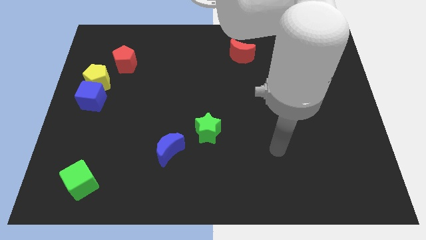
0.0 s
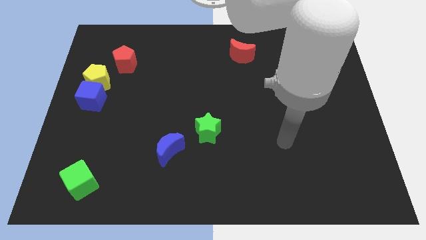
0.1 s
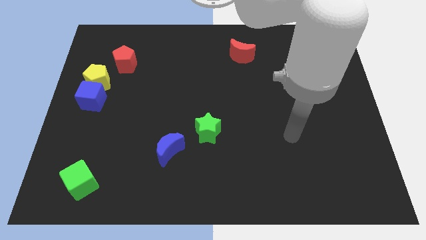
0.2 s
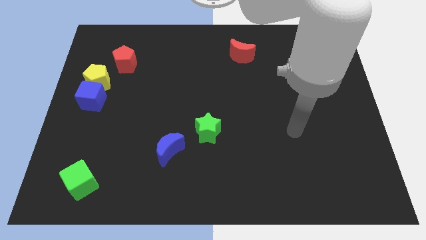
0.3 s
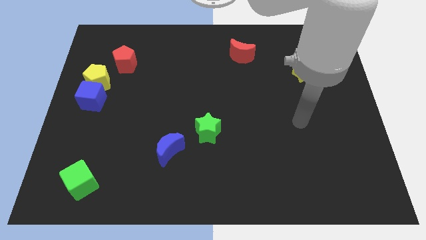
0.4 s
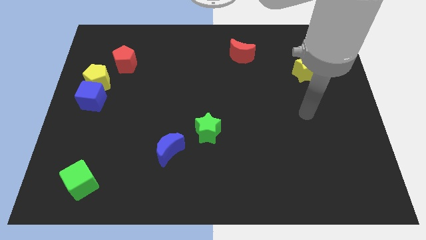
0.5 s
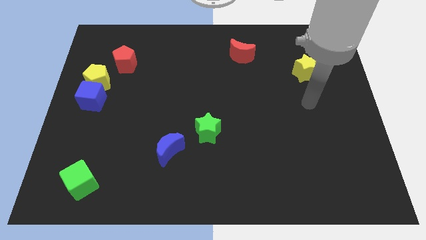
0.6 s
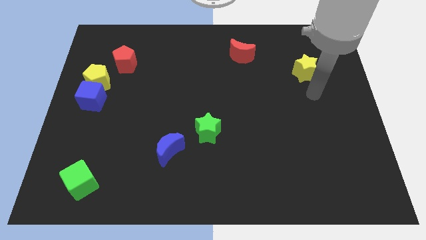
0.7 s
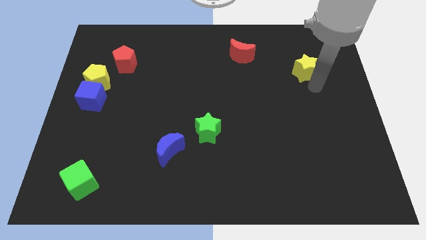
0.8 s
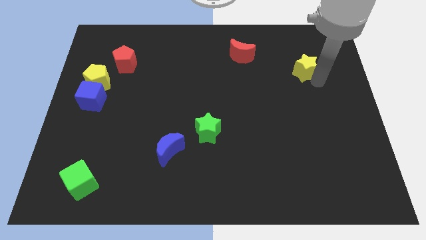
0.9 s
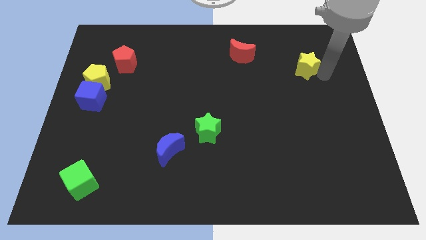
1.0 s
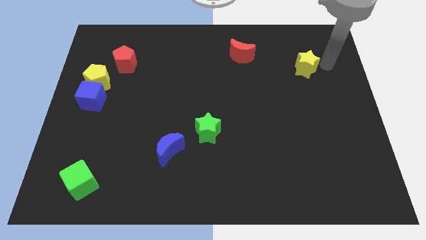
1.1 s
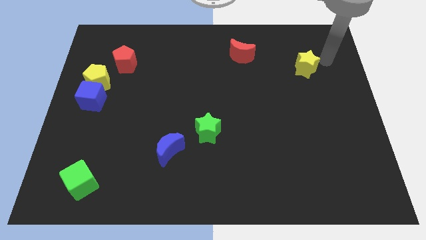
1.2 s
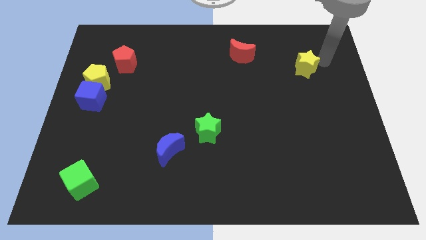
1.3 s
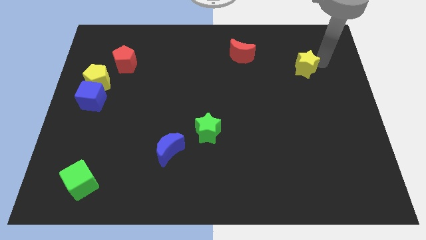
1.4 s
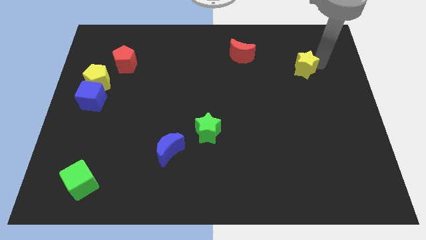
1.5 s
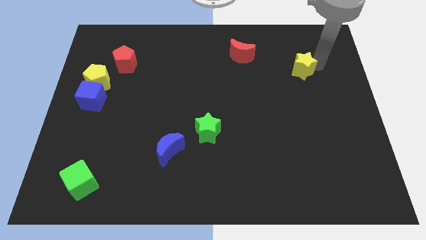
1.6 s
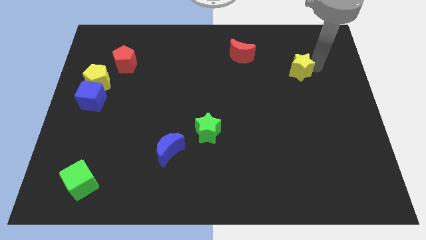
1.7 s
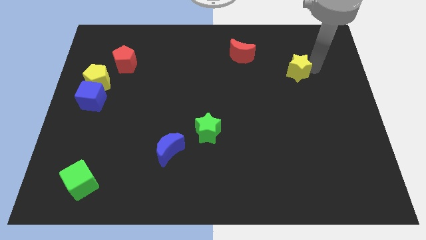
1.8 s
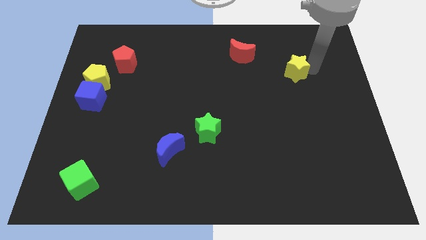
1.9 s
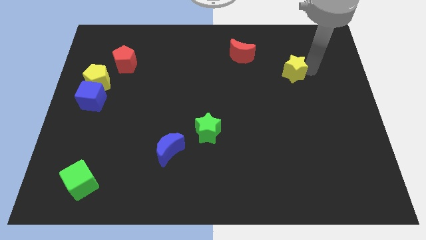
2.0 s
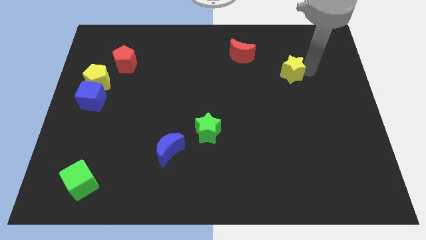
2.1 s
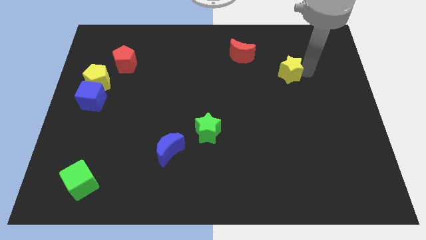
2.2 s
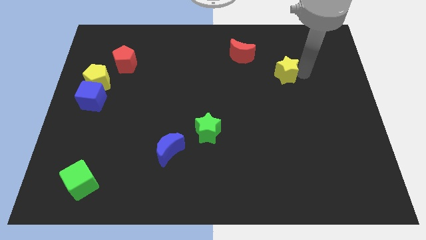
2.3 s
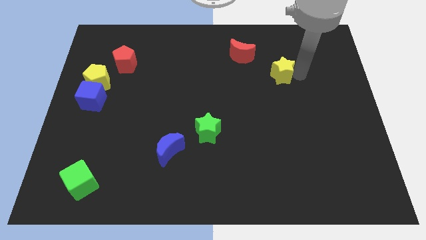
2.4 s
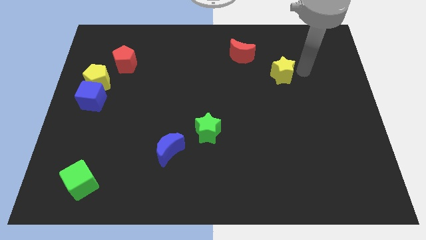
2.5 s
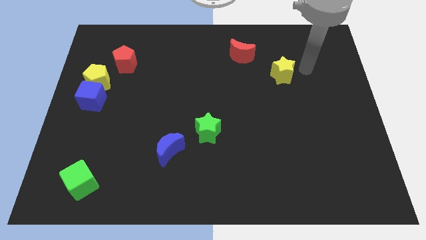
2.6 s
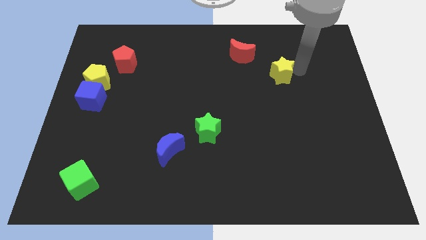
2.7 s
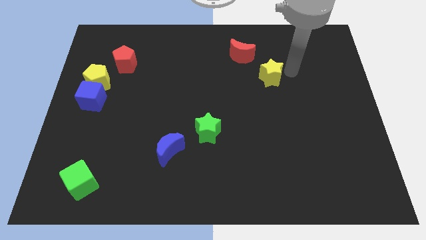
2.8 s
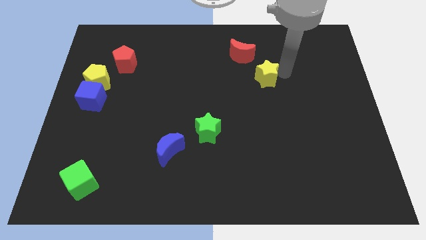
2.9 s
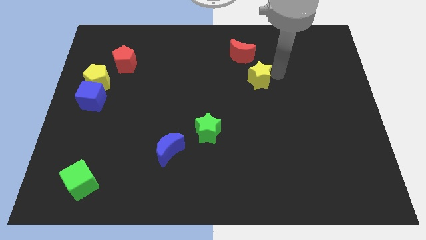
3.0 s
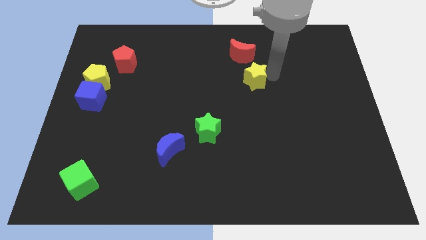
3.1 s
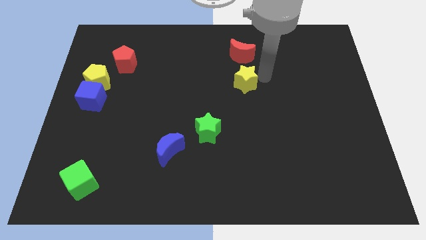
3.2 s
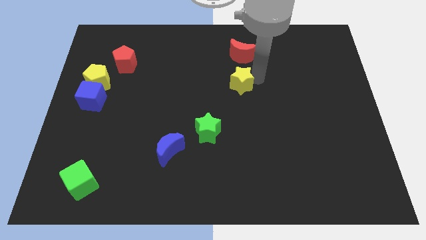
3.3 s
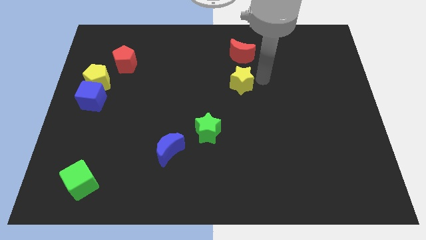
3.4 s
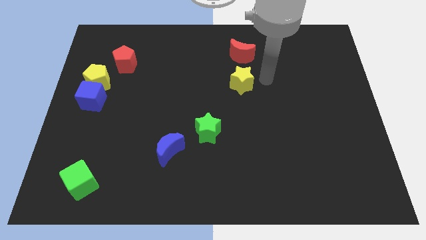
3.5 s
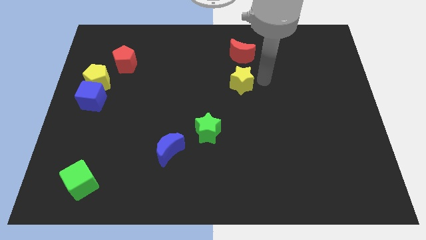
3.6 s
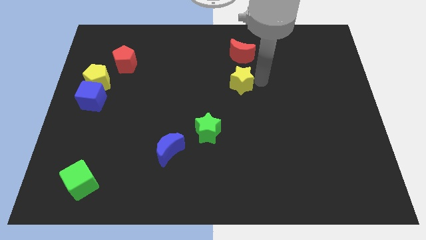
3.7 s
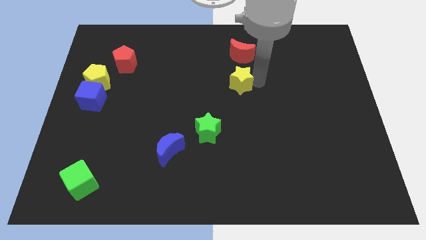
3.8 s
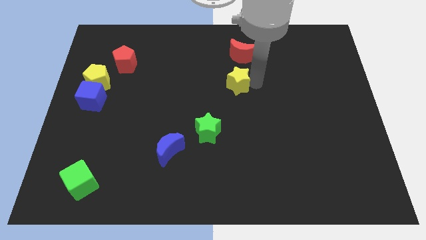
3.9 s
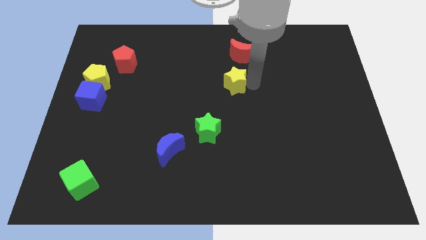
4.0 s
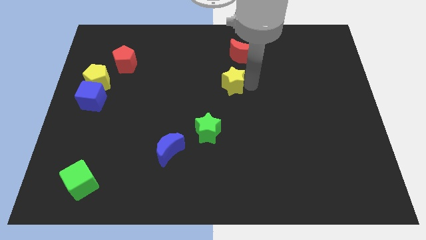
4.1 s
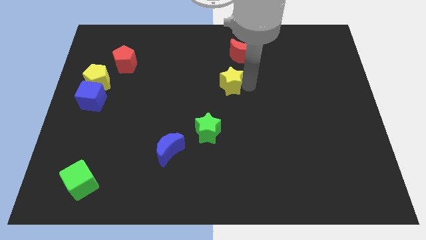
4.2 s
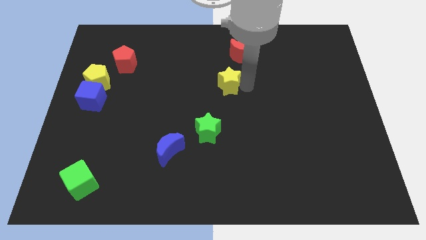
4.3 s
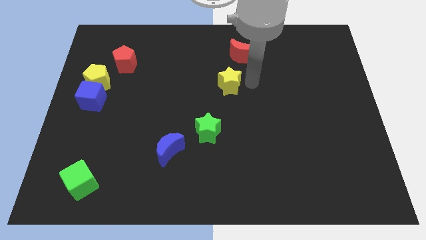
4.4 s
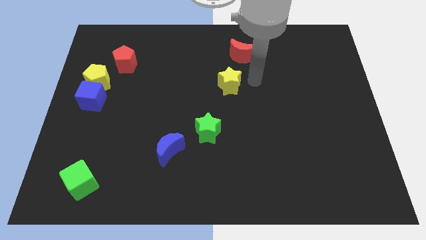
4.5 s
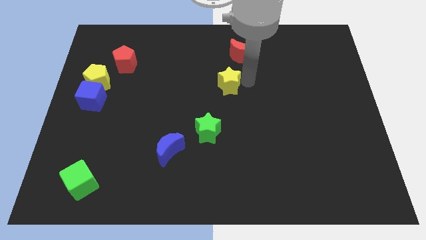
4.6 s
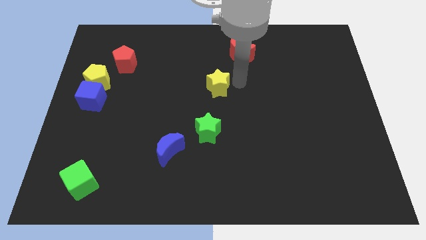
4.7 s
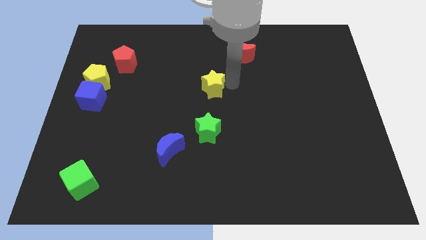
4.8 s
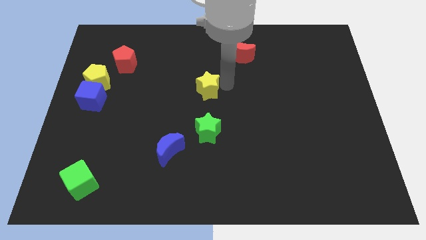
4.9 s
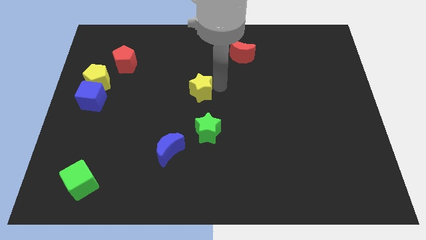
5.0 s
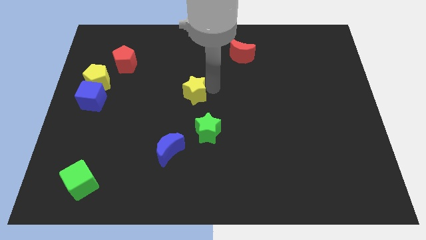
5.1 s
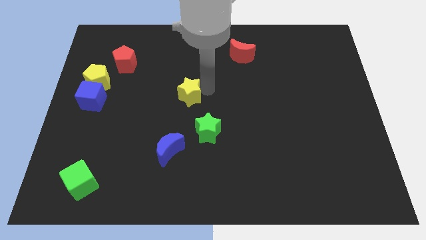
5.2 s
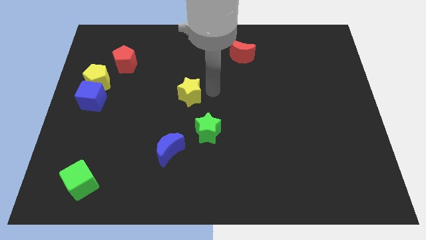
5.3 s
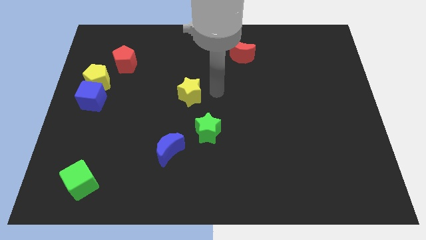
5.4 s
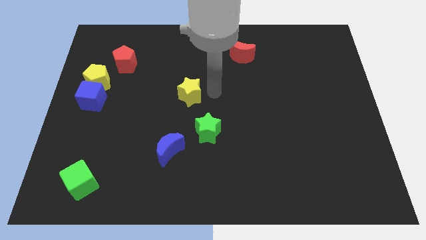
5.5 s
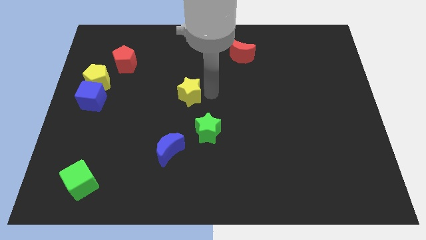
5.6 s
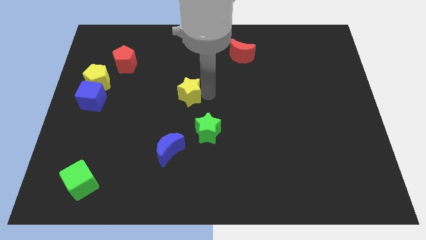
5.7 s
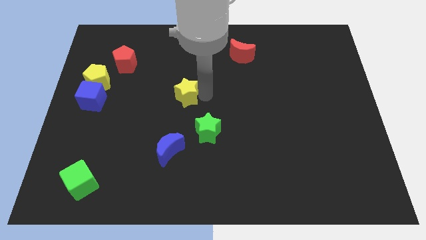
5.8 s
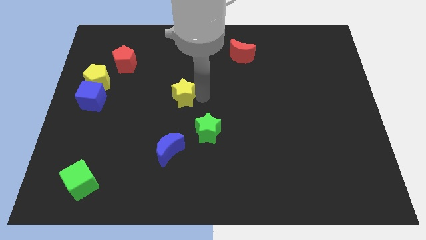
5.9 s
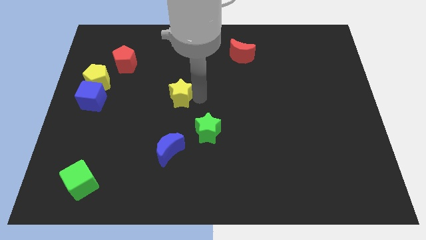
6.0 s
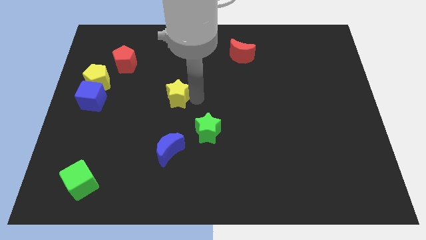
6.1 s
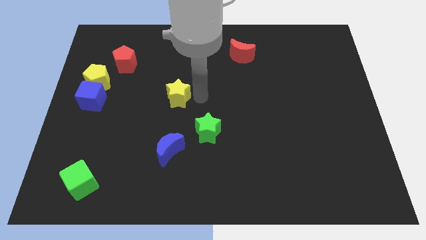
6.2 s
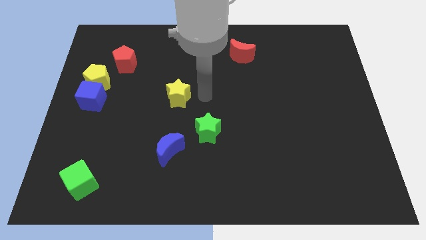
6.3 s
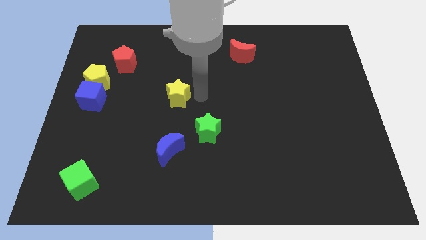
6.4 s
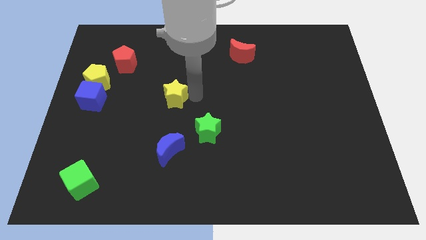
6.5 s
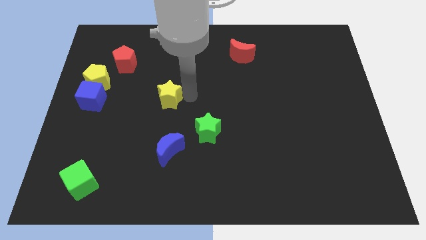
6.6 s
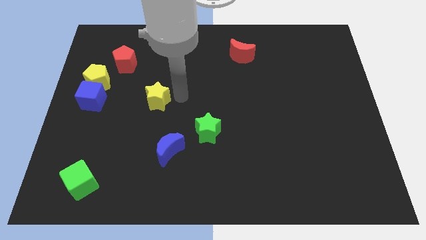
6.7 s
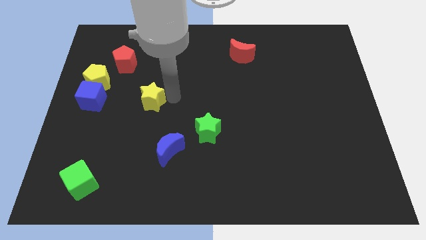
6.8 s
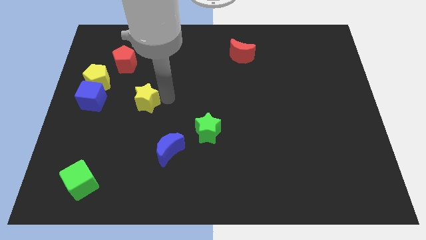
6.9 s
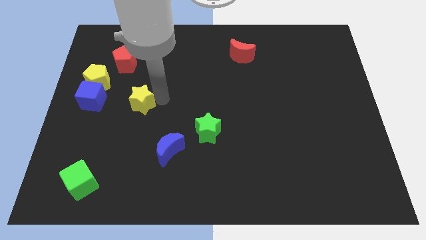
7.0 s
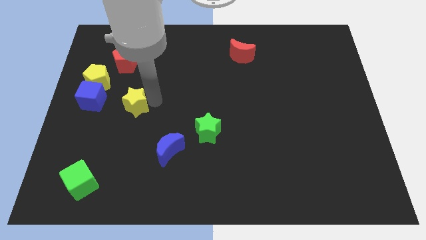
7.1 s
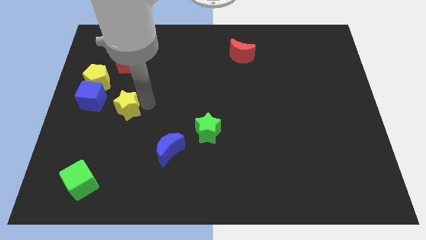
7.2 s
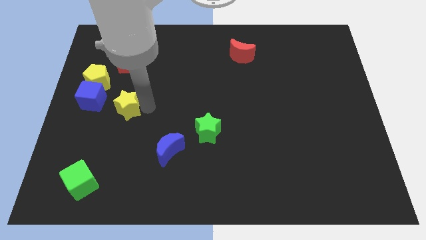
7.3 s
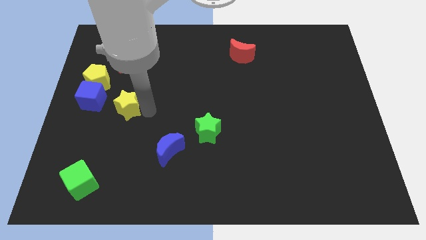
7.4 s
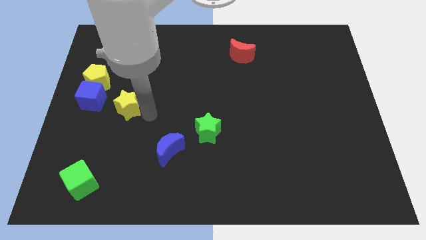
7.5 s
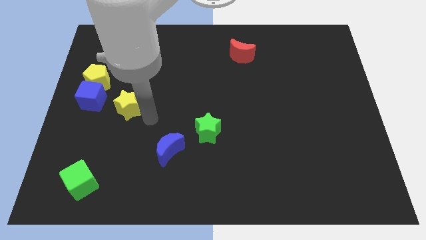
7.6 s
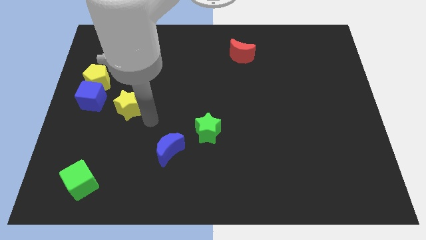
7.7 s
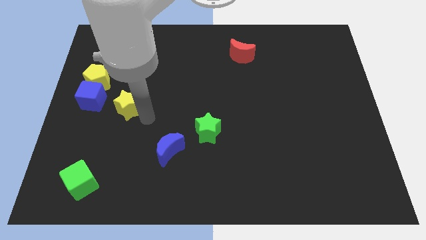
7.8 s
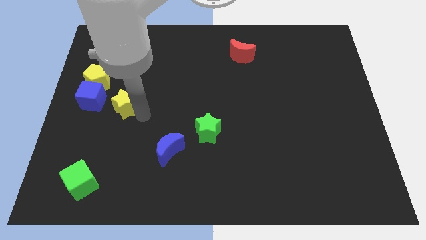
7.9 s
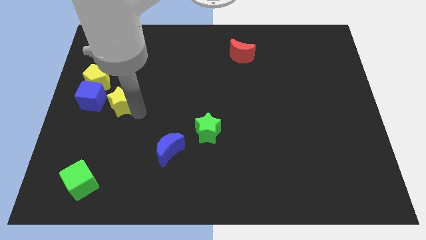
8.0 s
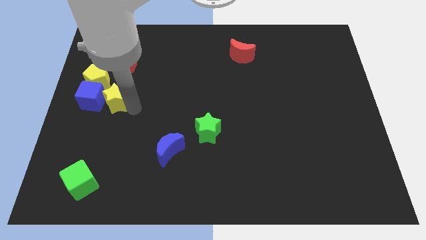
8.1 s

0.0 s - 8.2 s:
move the yellow star to the blue cube
